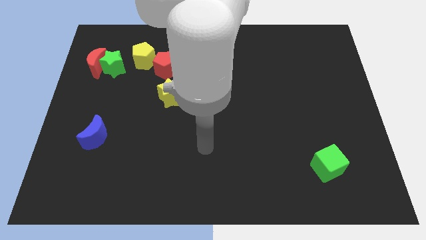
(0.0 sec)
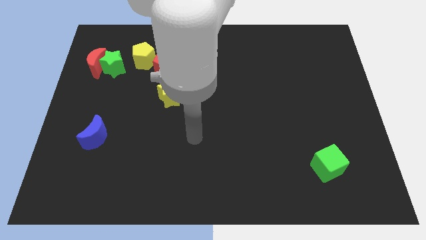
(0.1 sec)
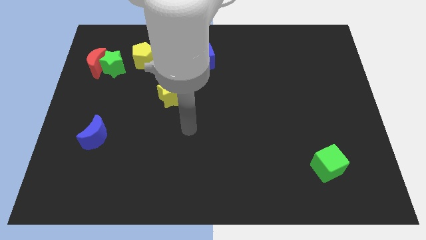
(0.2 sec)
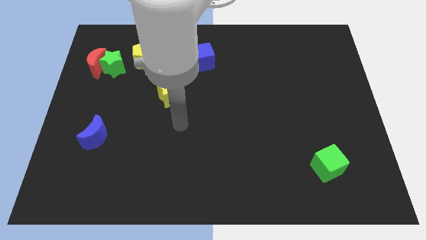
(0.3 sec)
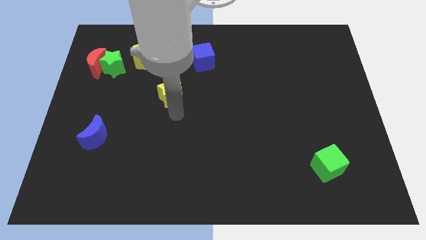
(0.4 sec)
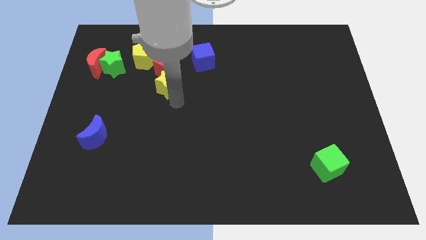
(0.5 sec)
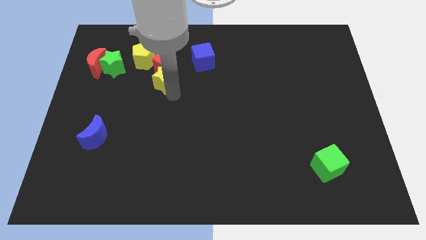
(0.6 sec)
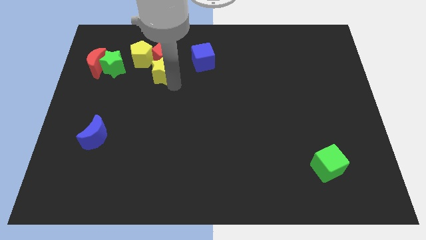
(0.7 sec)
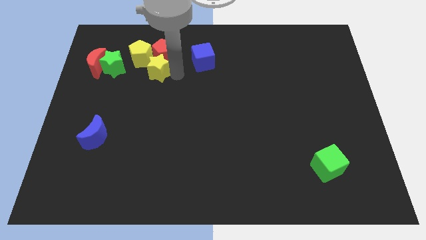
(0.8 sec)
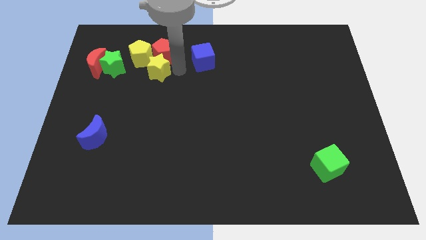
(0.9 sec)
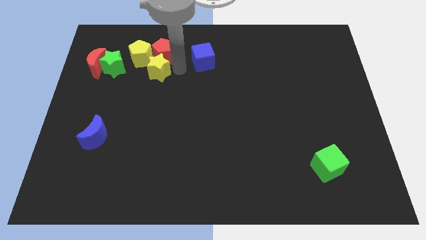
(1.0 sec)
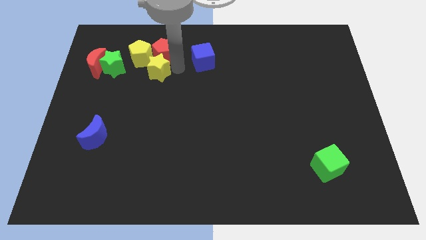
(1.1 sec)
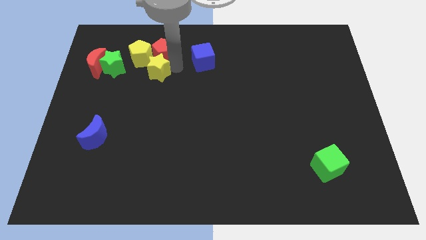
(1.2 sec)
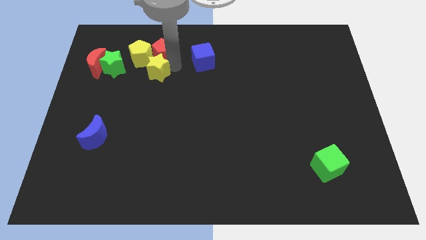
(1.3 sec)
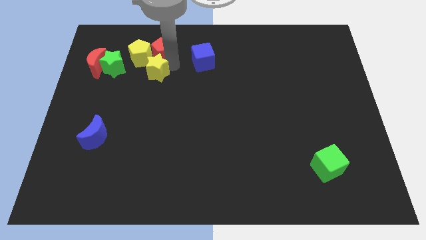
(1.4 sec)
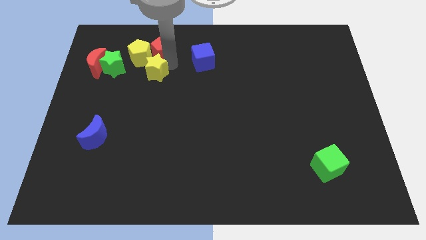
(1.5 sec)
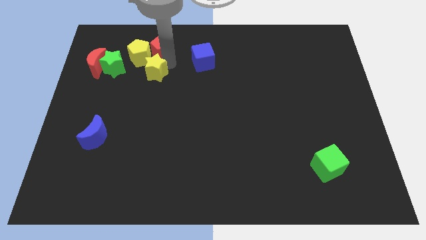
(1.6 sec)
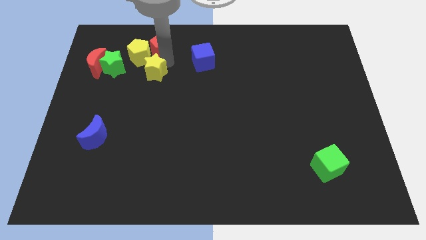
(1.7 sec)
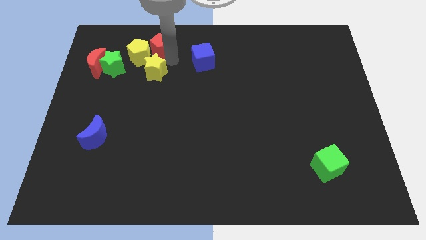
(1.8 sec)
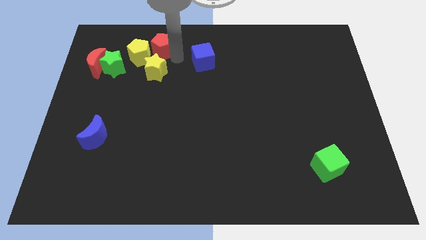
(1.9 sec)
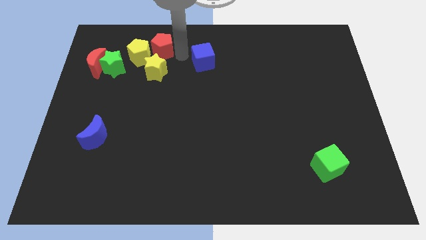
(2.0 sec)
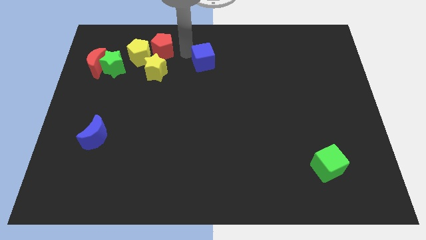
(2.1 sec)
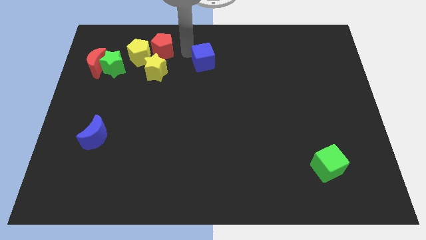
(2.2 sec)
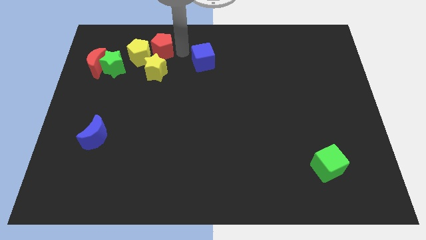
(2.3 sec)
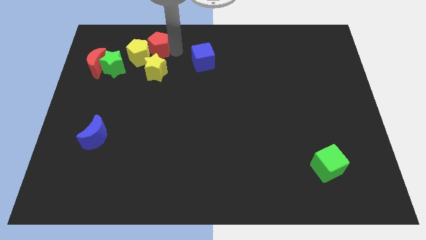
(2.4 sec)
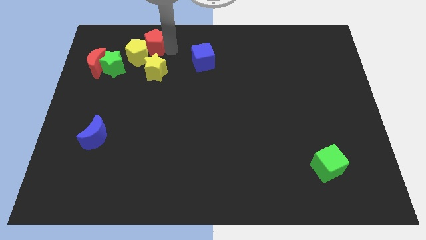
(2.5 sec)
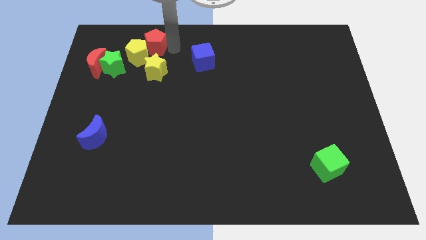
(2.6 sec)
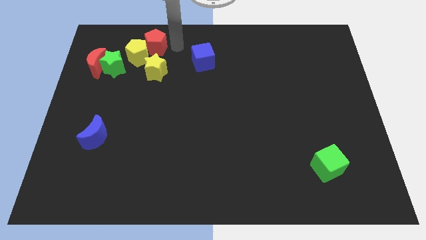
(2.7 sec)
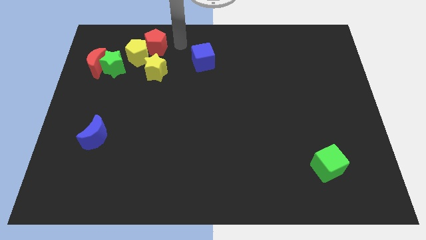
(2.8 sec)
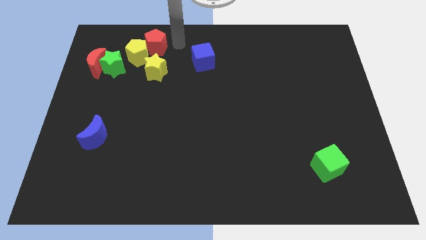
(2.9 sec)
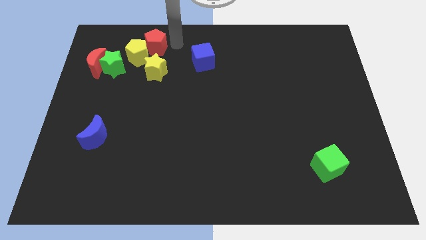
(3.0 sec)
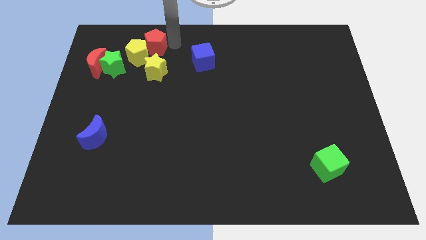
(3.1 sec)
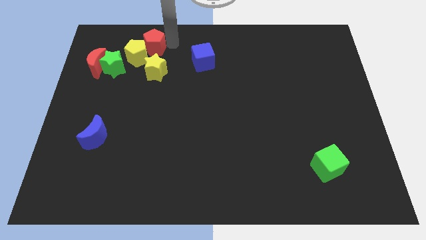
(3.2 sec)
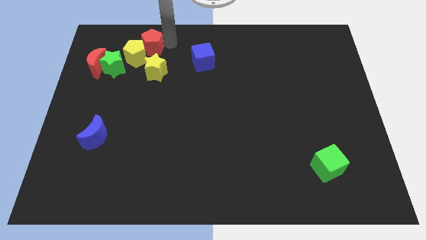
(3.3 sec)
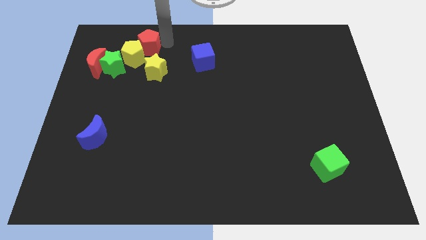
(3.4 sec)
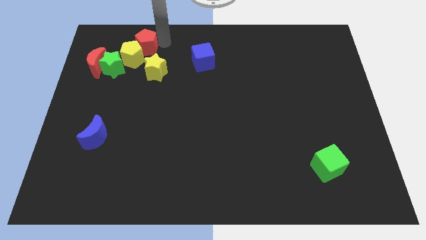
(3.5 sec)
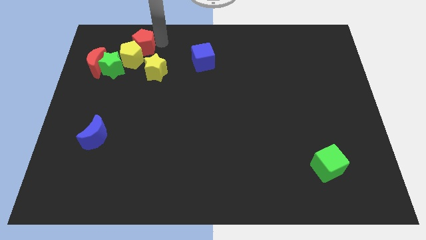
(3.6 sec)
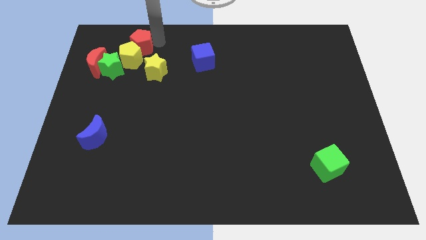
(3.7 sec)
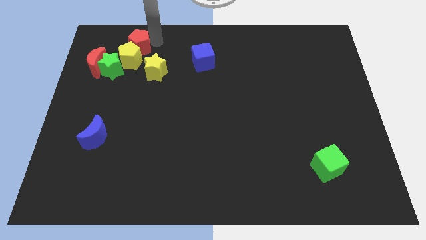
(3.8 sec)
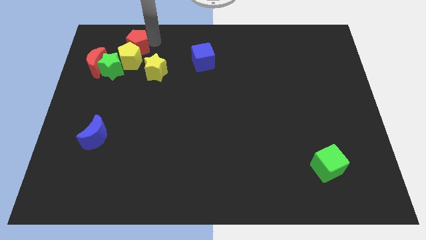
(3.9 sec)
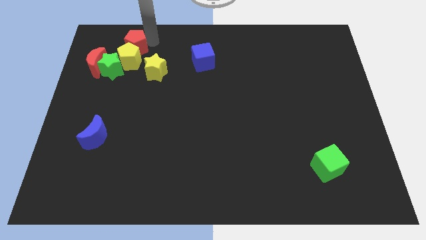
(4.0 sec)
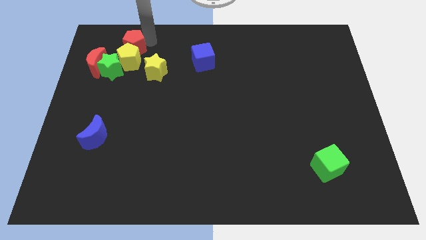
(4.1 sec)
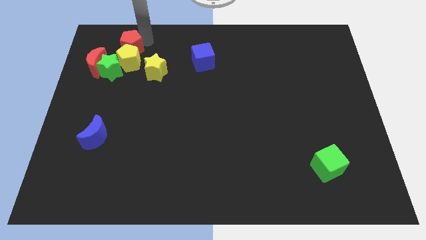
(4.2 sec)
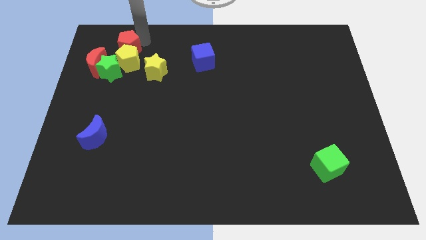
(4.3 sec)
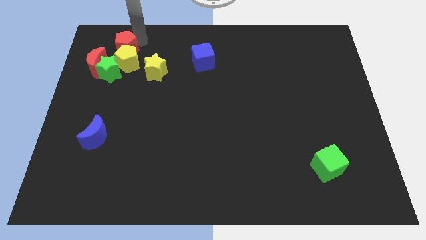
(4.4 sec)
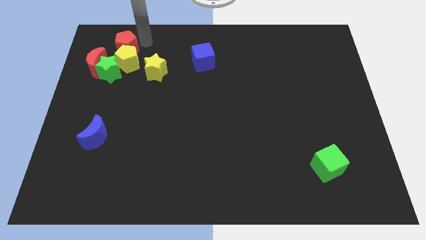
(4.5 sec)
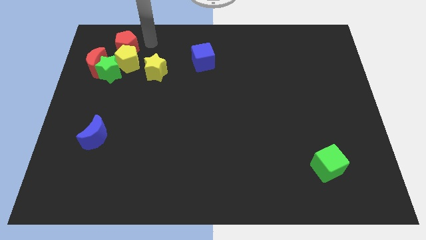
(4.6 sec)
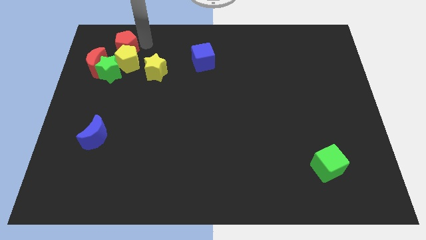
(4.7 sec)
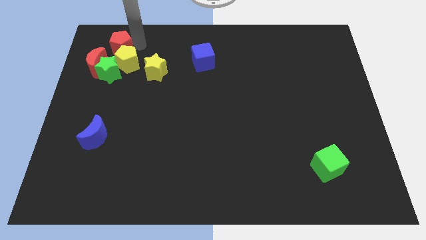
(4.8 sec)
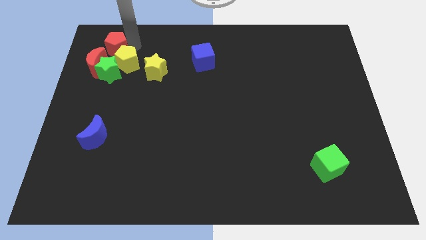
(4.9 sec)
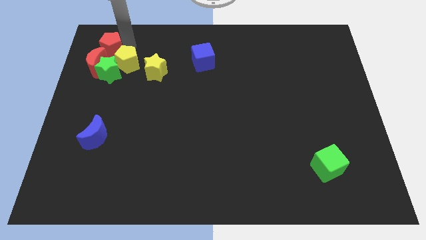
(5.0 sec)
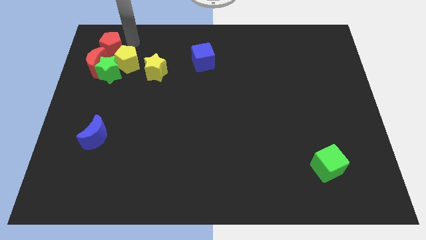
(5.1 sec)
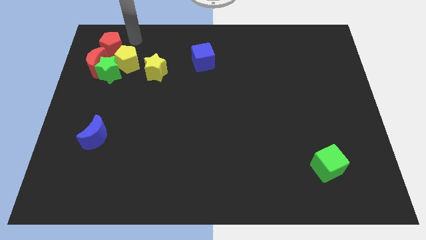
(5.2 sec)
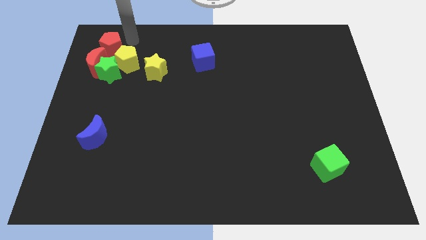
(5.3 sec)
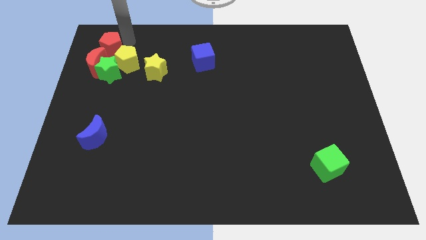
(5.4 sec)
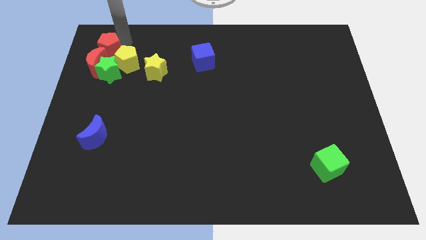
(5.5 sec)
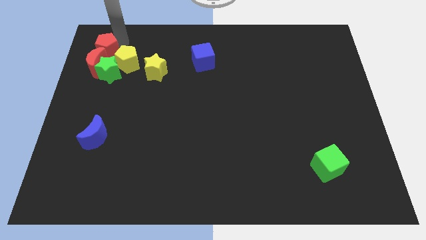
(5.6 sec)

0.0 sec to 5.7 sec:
put the red pentagon left of the yellow pentagon
